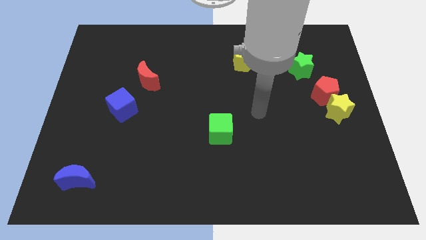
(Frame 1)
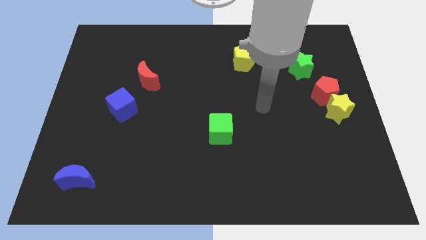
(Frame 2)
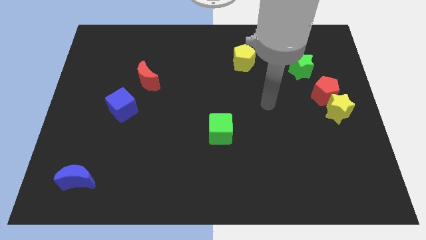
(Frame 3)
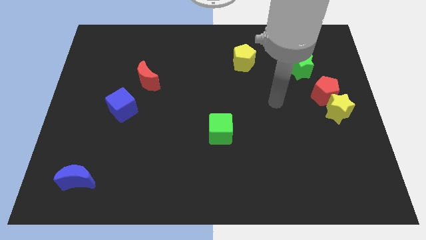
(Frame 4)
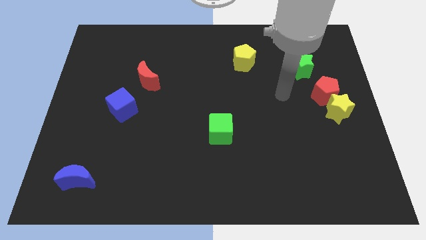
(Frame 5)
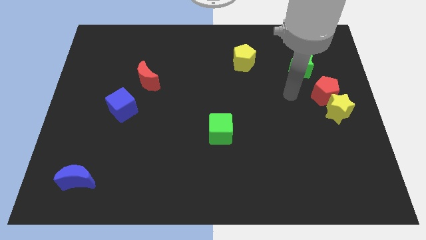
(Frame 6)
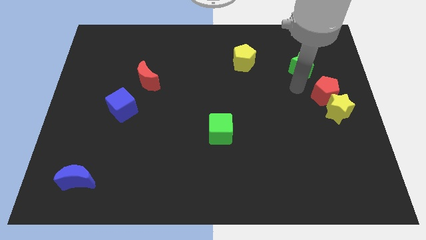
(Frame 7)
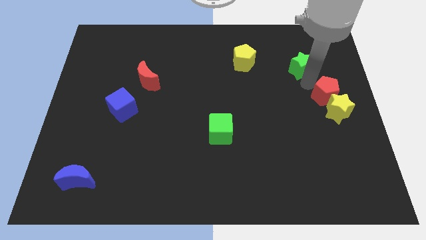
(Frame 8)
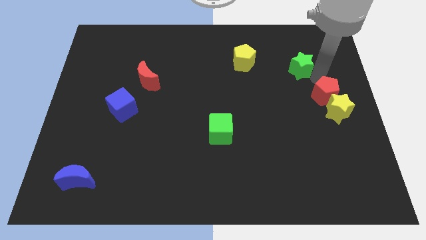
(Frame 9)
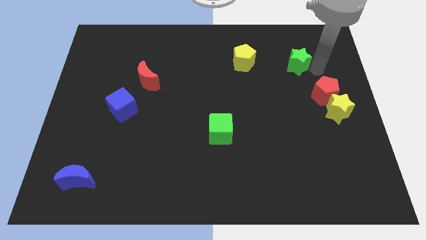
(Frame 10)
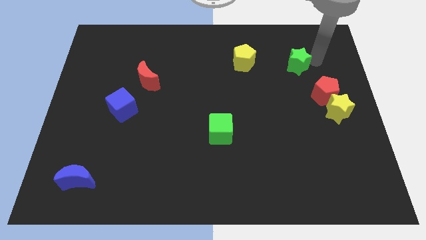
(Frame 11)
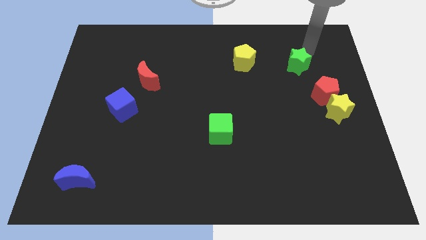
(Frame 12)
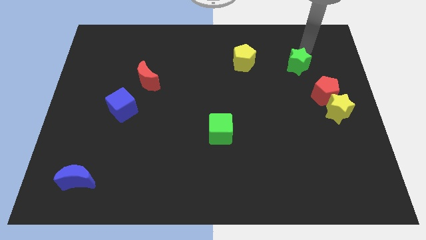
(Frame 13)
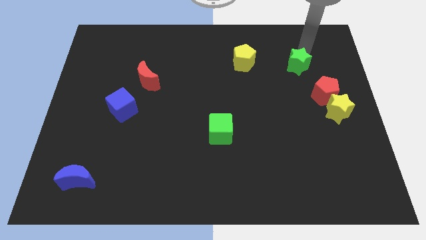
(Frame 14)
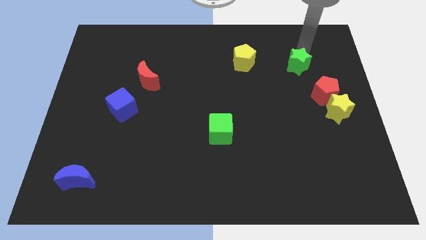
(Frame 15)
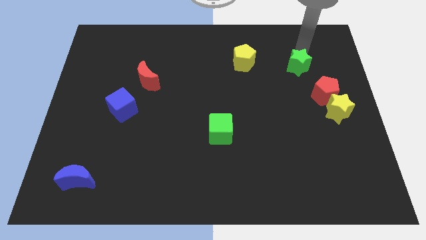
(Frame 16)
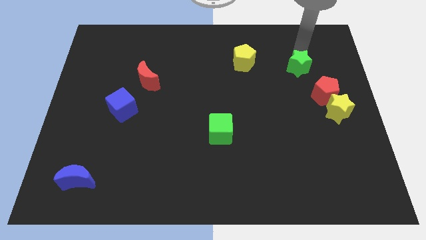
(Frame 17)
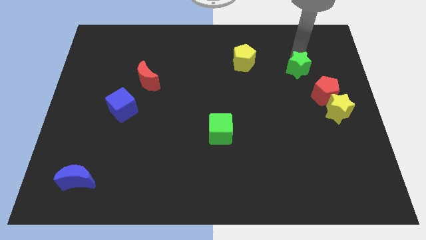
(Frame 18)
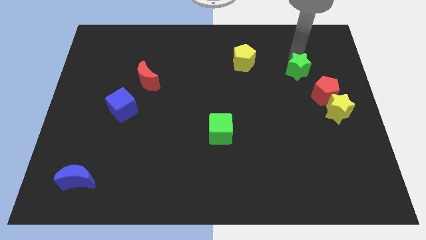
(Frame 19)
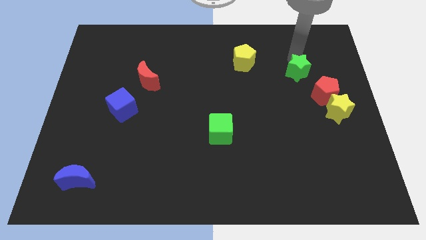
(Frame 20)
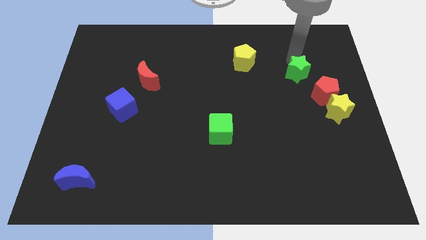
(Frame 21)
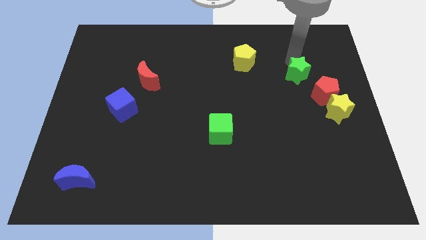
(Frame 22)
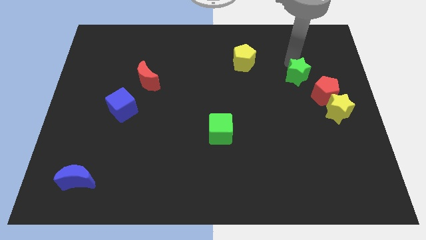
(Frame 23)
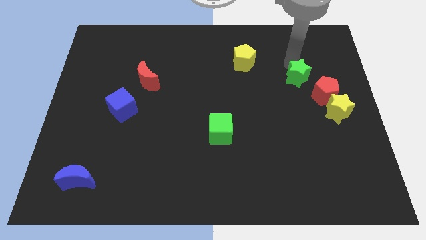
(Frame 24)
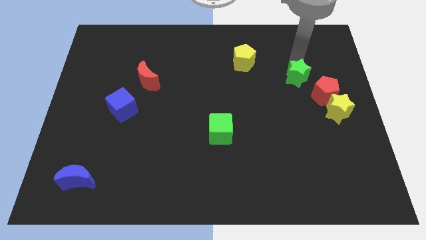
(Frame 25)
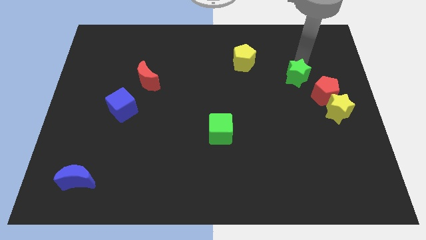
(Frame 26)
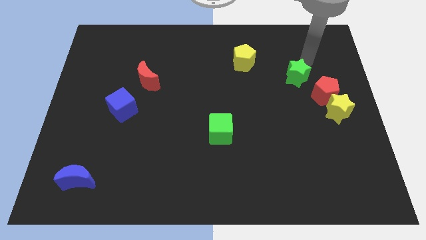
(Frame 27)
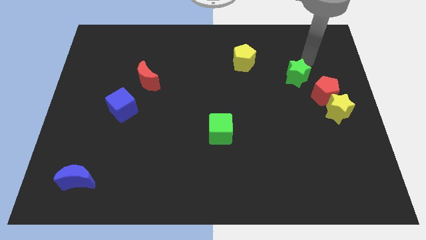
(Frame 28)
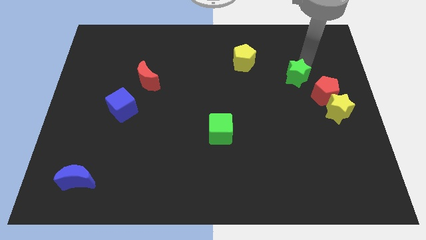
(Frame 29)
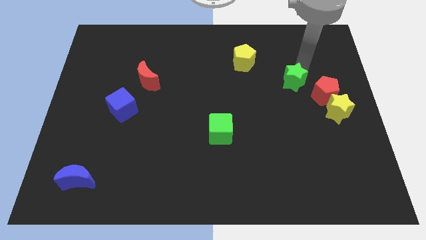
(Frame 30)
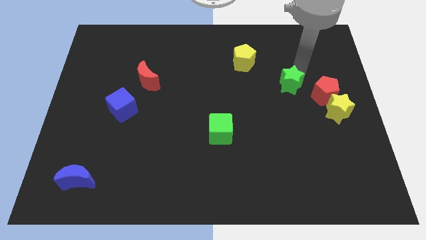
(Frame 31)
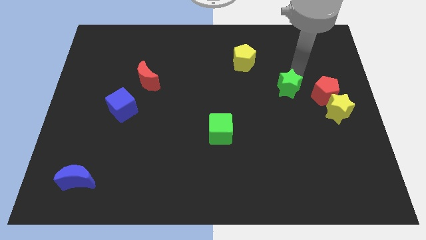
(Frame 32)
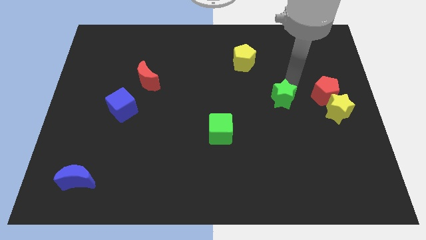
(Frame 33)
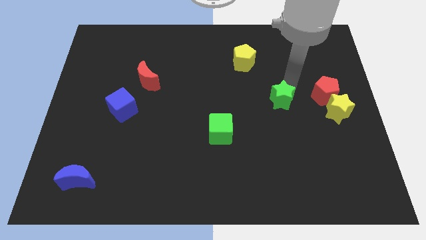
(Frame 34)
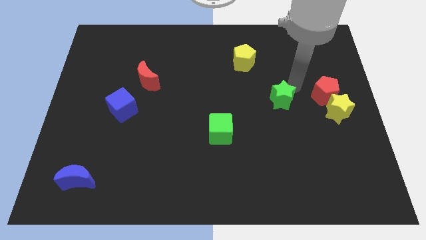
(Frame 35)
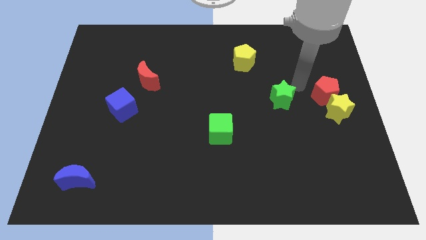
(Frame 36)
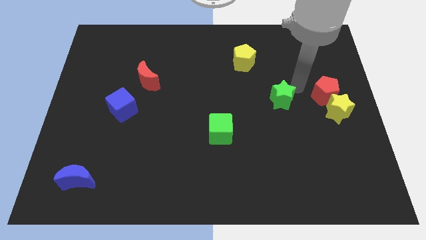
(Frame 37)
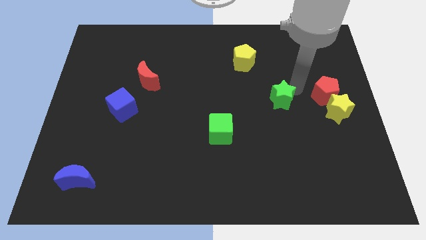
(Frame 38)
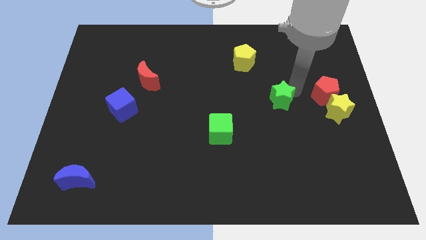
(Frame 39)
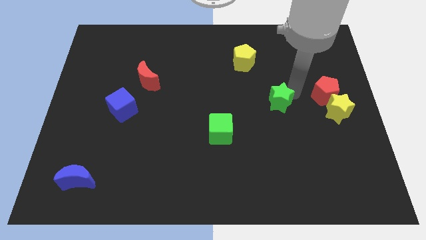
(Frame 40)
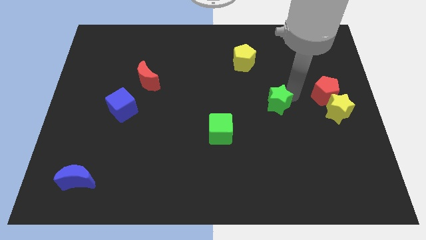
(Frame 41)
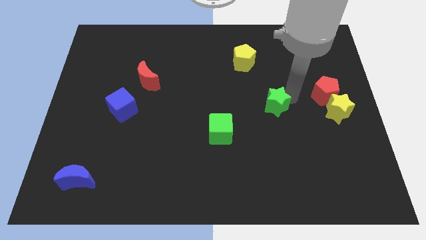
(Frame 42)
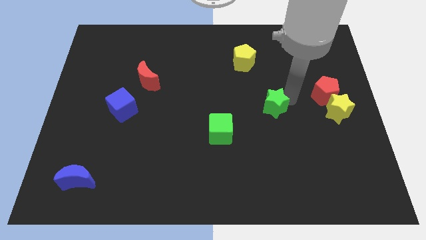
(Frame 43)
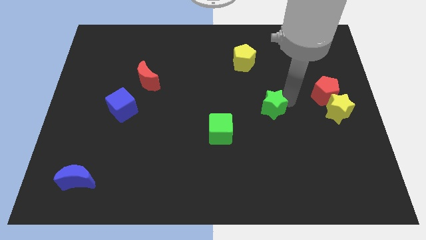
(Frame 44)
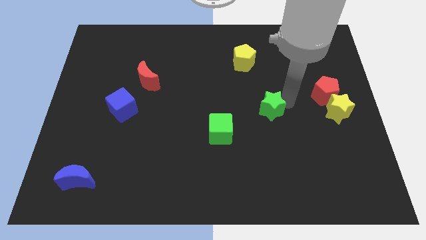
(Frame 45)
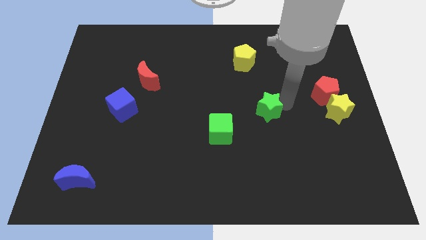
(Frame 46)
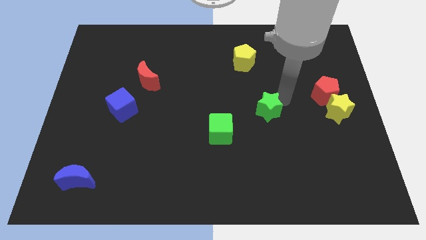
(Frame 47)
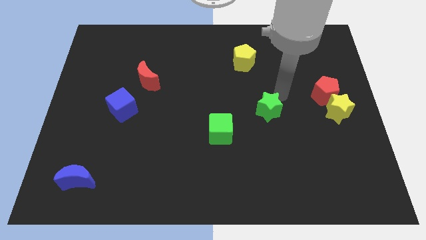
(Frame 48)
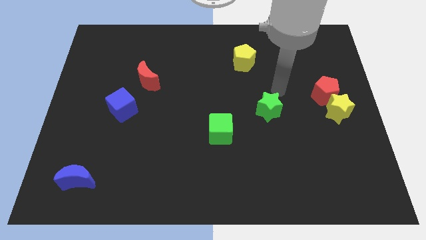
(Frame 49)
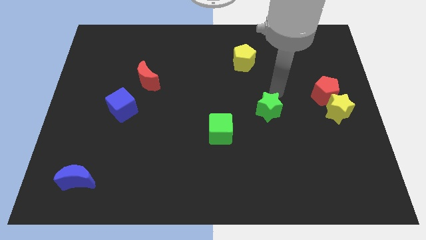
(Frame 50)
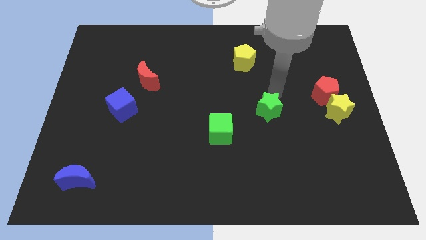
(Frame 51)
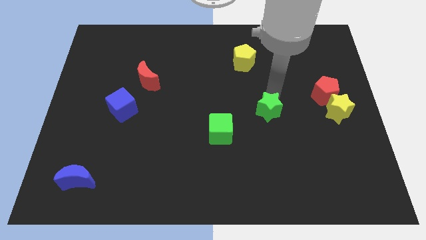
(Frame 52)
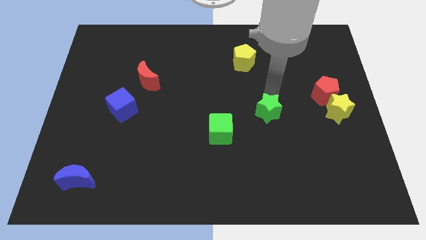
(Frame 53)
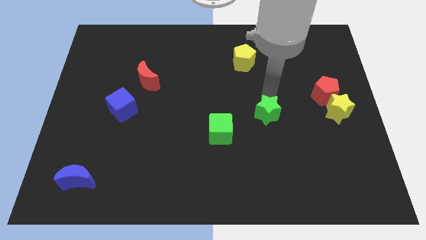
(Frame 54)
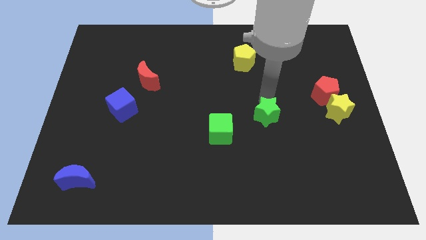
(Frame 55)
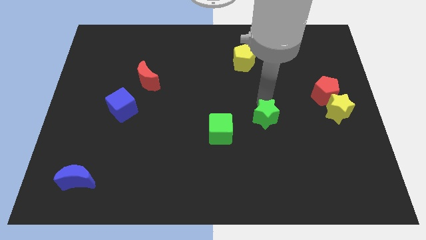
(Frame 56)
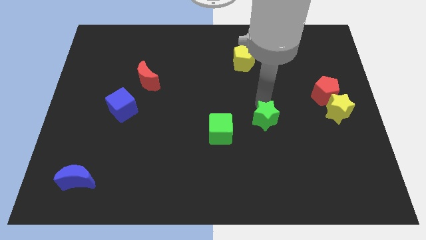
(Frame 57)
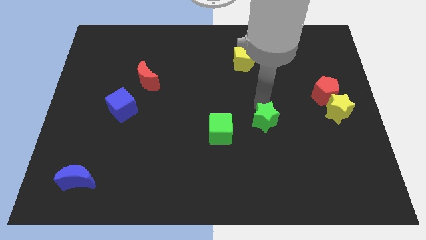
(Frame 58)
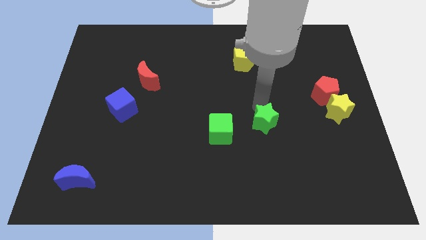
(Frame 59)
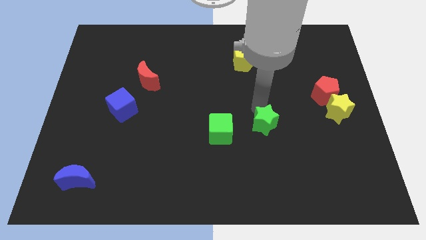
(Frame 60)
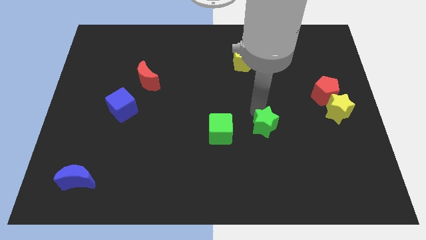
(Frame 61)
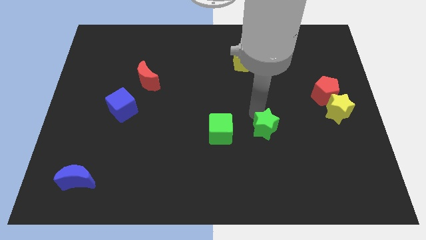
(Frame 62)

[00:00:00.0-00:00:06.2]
slide the green star down and left

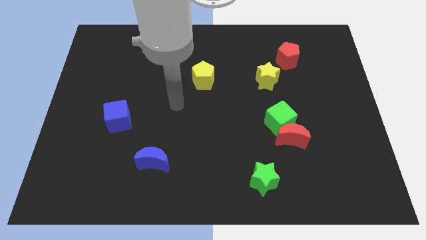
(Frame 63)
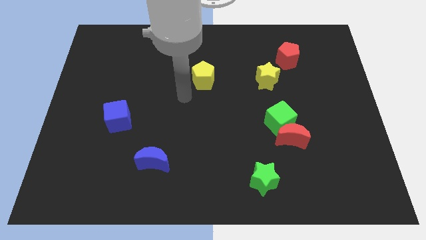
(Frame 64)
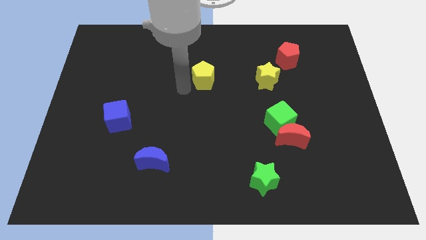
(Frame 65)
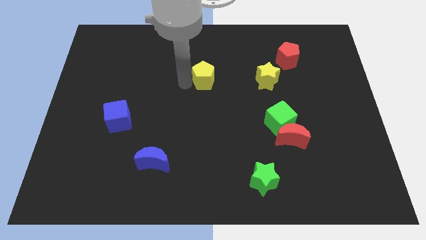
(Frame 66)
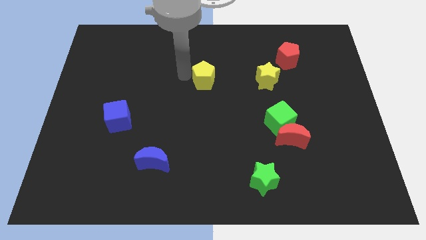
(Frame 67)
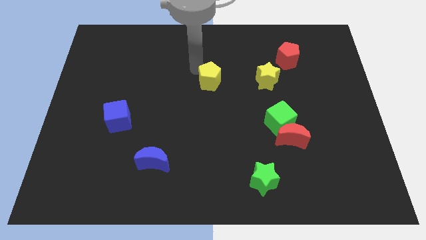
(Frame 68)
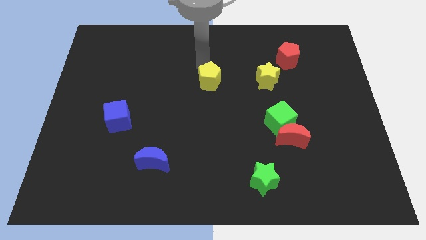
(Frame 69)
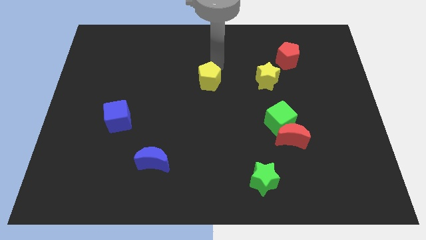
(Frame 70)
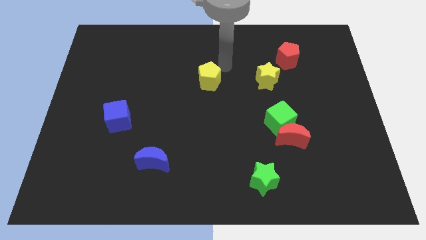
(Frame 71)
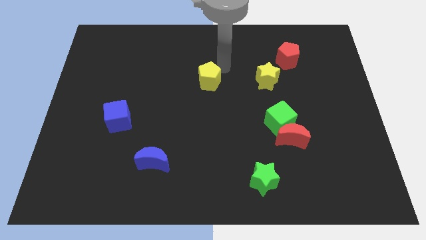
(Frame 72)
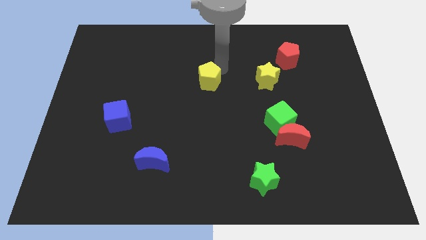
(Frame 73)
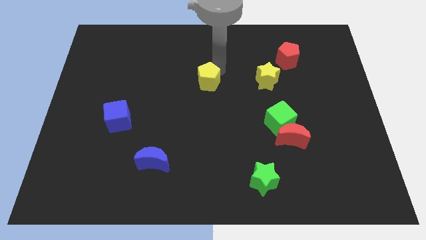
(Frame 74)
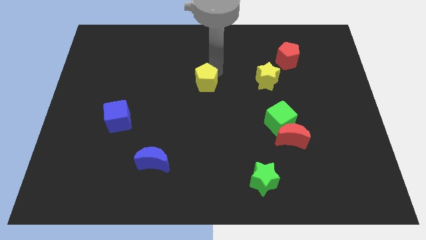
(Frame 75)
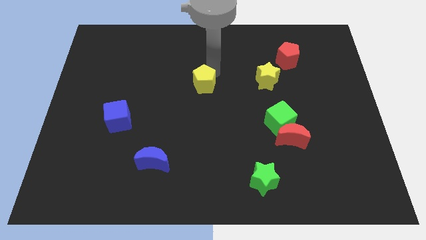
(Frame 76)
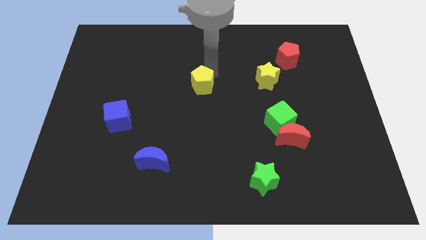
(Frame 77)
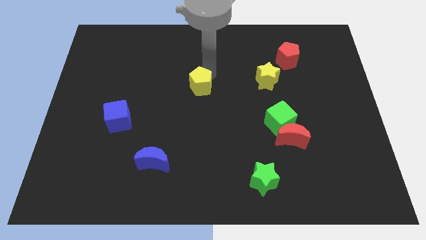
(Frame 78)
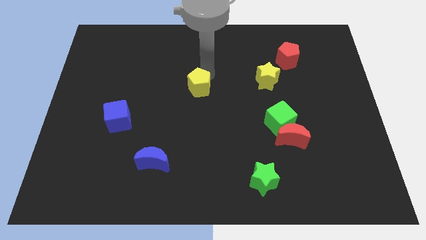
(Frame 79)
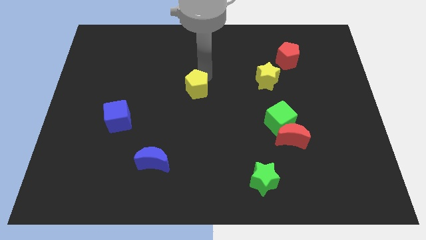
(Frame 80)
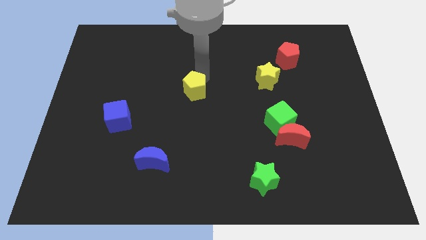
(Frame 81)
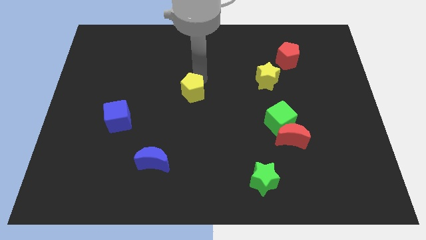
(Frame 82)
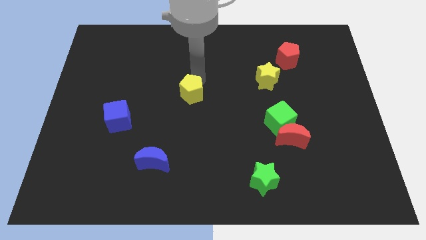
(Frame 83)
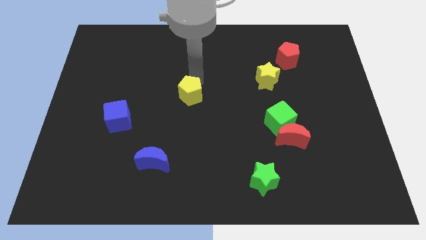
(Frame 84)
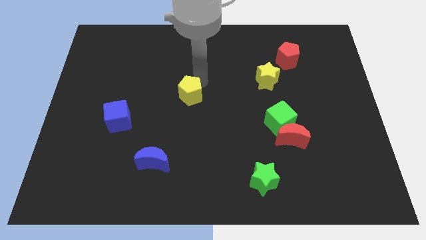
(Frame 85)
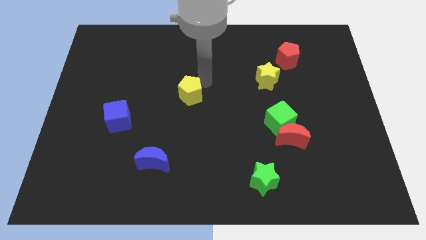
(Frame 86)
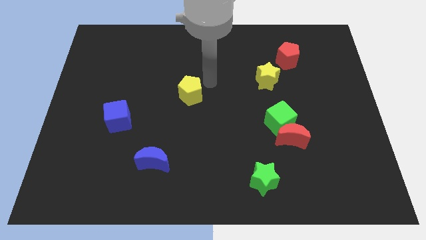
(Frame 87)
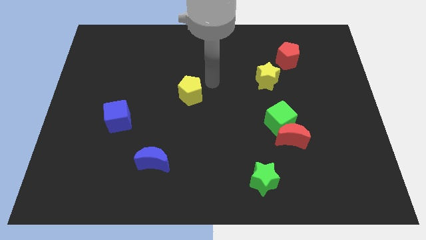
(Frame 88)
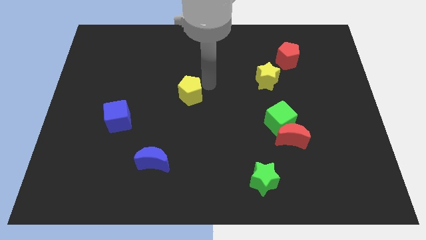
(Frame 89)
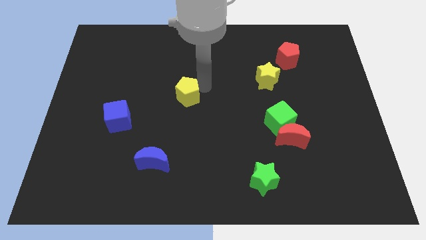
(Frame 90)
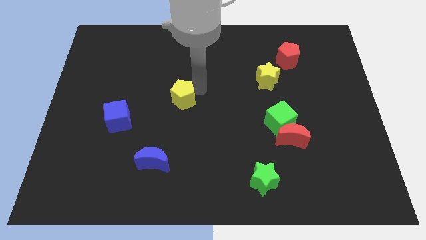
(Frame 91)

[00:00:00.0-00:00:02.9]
push the yellow pentagon a little bit downwards and to the left
